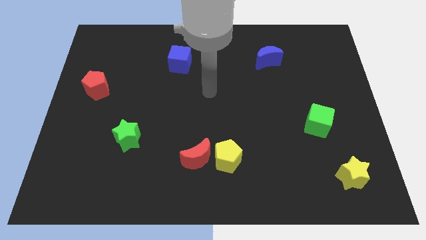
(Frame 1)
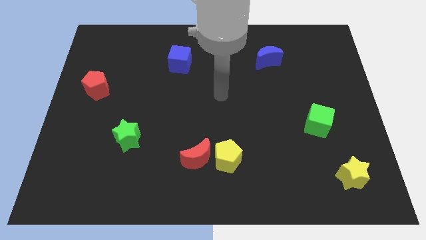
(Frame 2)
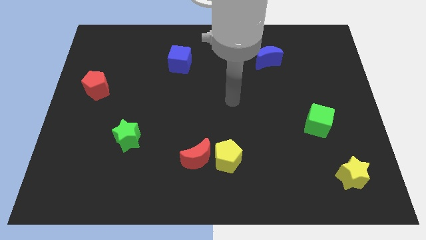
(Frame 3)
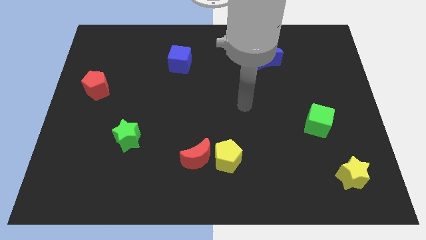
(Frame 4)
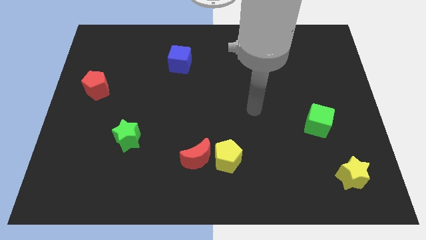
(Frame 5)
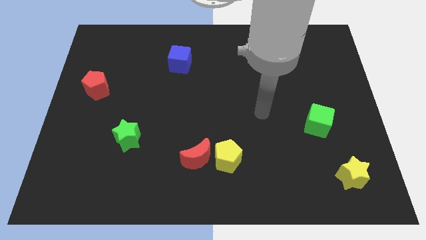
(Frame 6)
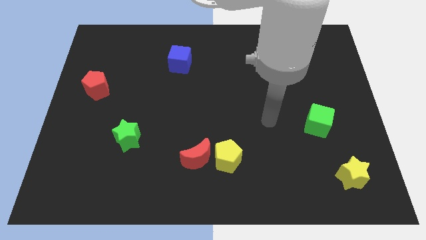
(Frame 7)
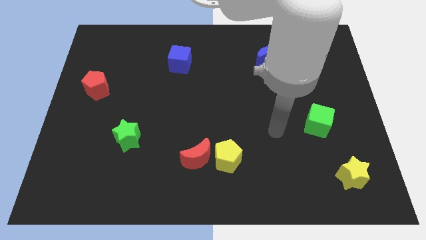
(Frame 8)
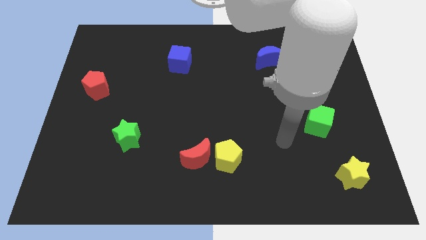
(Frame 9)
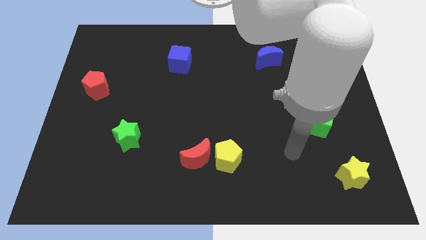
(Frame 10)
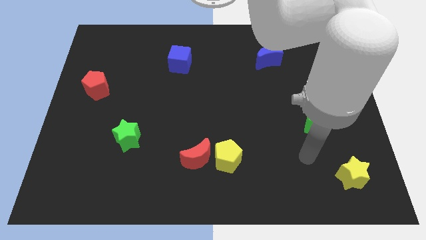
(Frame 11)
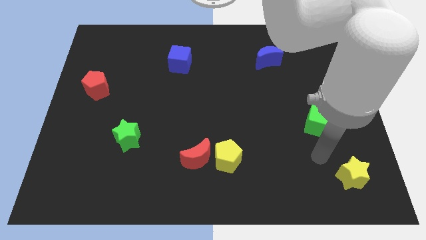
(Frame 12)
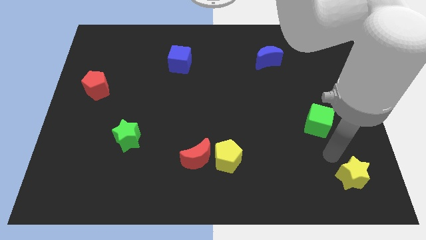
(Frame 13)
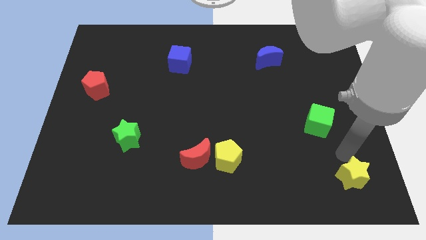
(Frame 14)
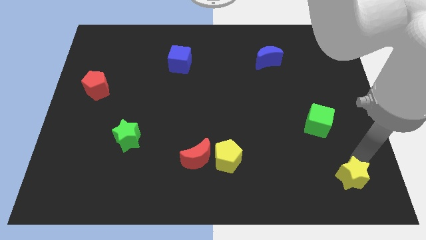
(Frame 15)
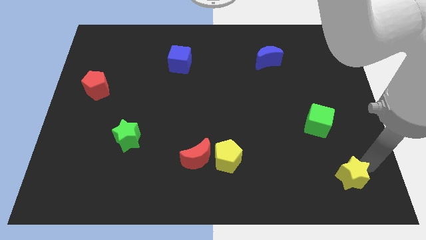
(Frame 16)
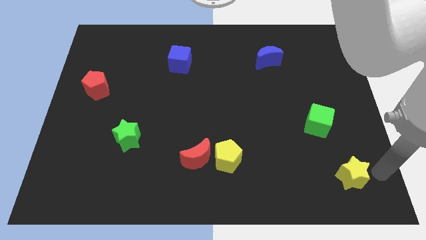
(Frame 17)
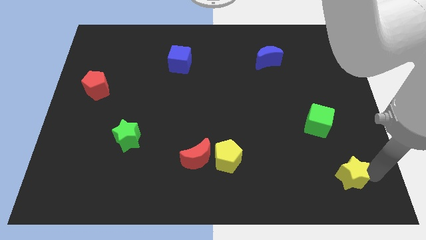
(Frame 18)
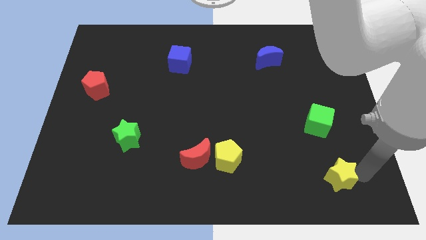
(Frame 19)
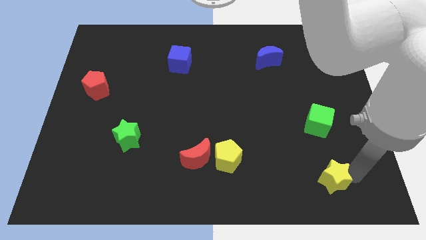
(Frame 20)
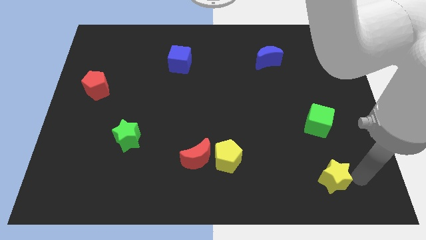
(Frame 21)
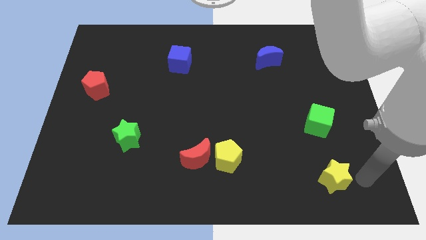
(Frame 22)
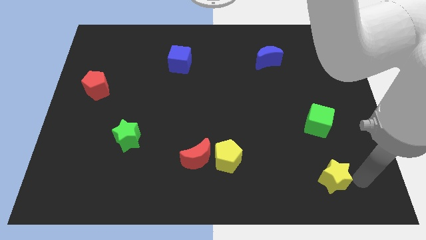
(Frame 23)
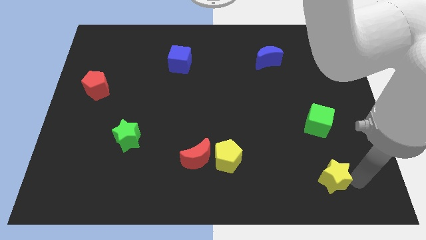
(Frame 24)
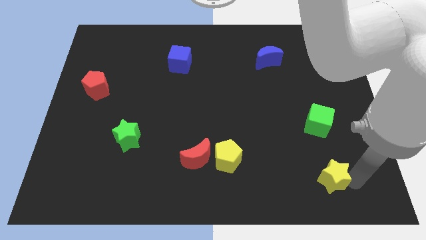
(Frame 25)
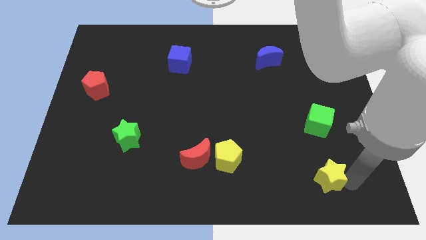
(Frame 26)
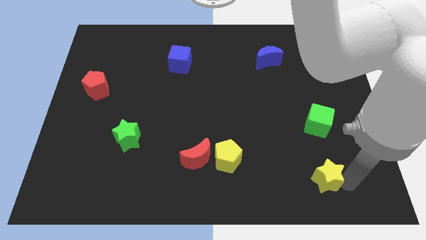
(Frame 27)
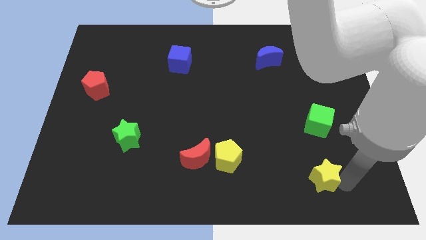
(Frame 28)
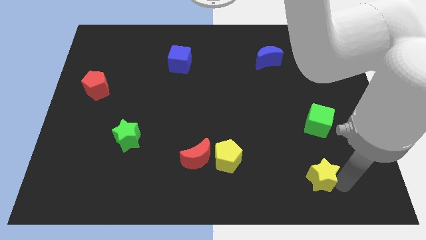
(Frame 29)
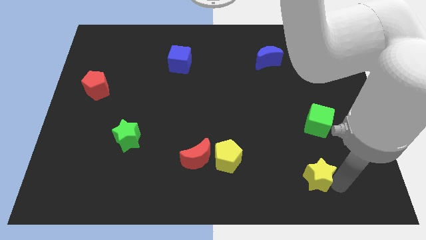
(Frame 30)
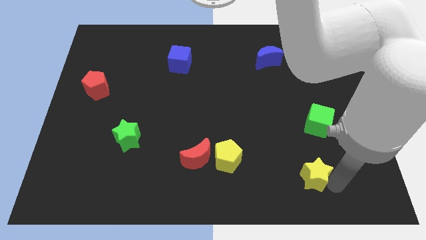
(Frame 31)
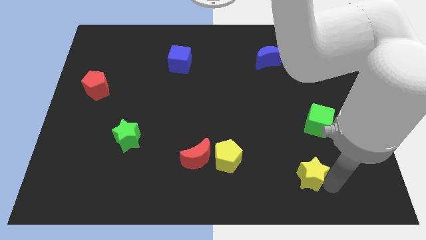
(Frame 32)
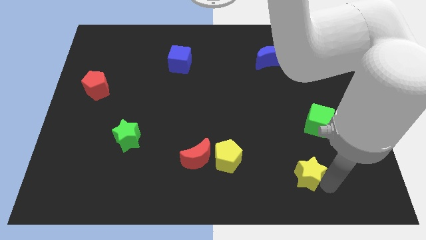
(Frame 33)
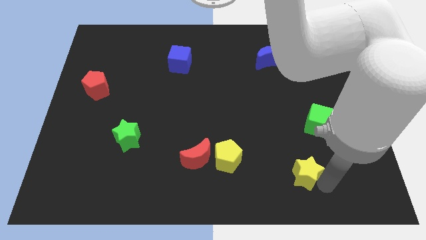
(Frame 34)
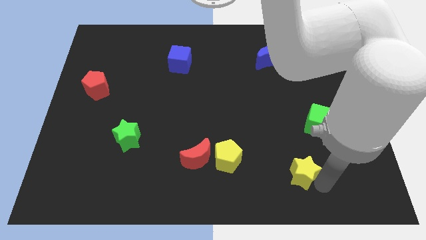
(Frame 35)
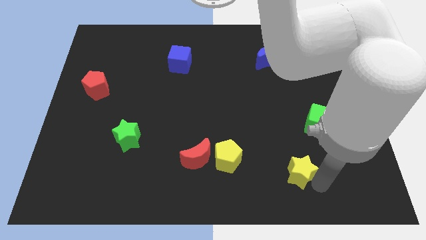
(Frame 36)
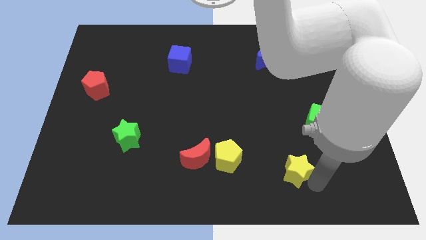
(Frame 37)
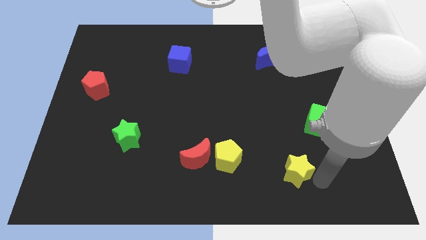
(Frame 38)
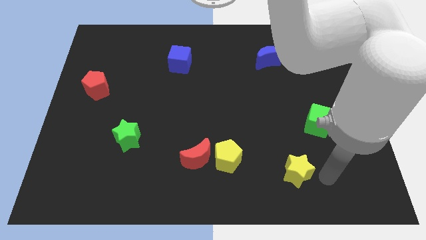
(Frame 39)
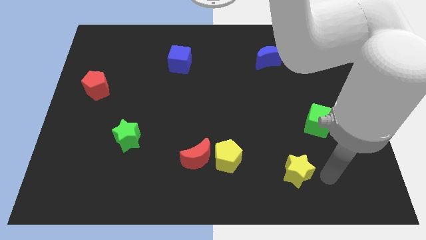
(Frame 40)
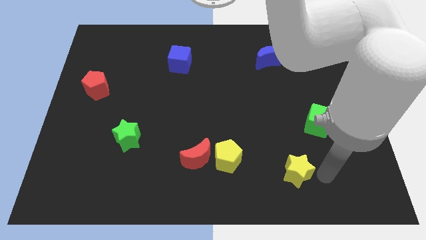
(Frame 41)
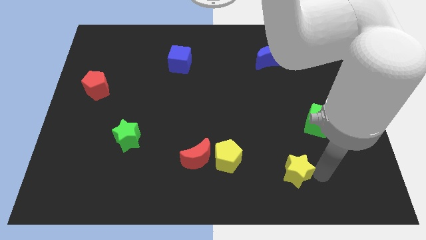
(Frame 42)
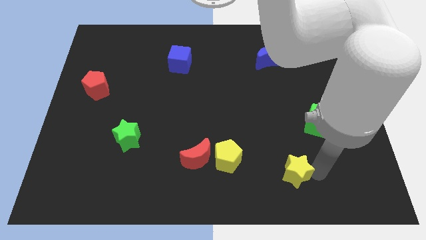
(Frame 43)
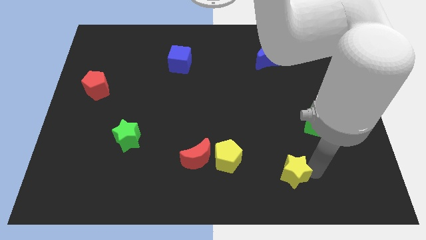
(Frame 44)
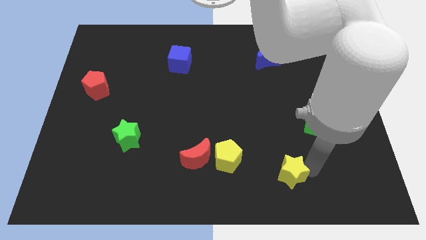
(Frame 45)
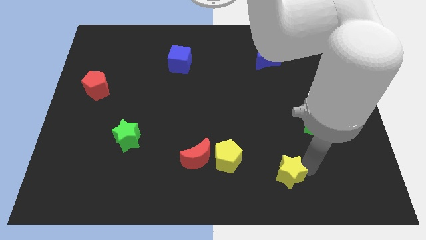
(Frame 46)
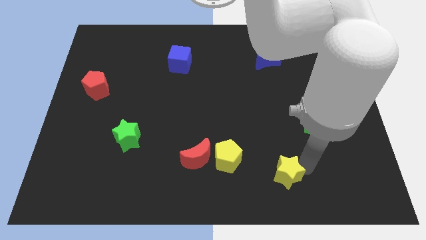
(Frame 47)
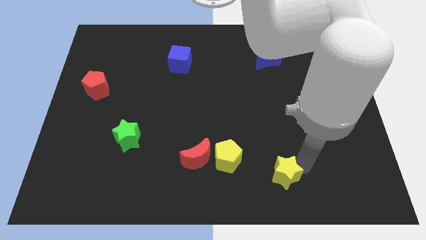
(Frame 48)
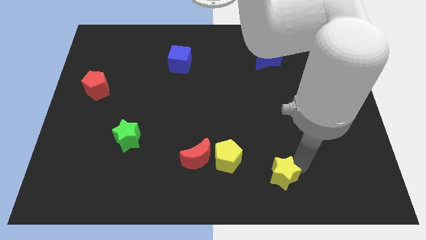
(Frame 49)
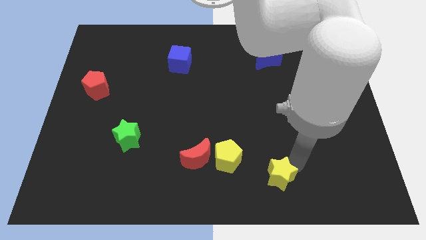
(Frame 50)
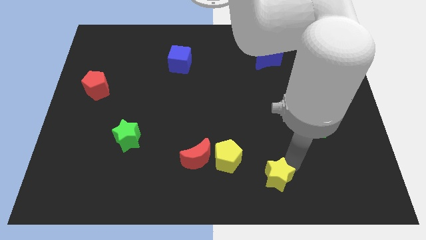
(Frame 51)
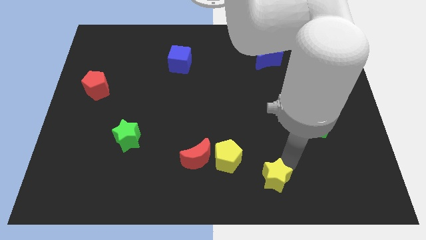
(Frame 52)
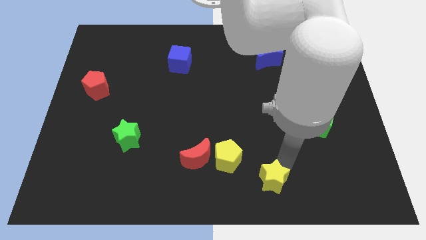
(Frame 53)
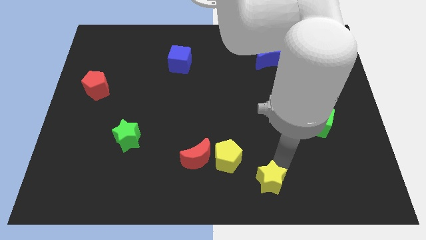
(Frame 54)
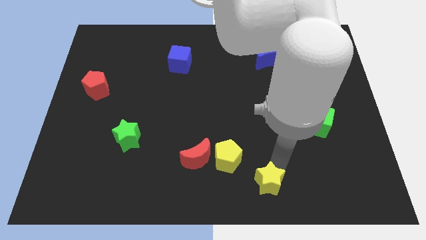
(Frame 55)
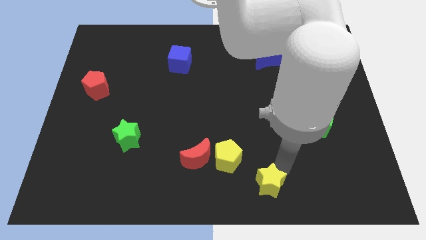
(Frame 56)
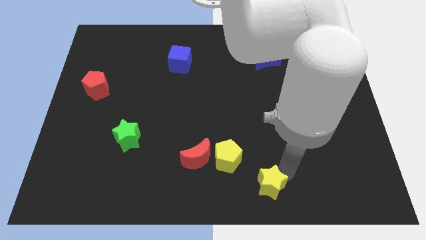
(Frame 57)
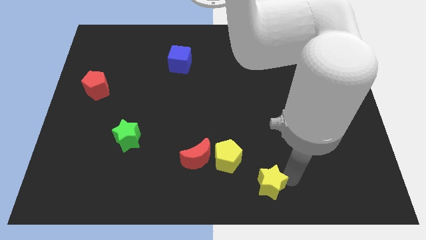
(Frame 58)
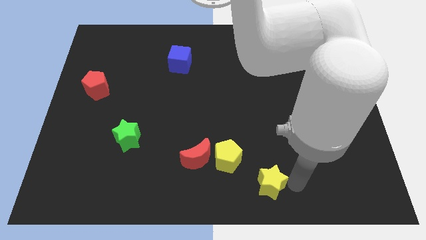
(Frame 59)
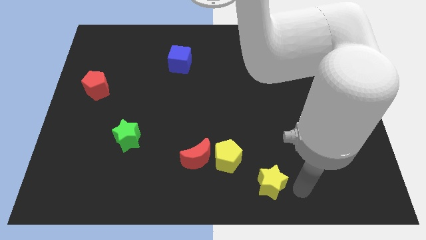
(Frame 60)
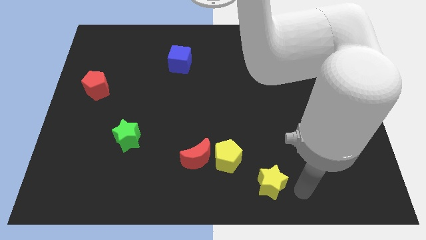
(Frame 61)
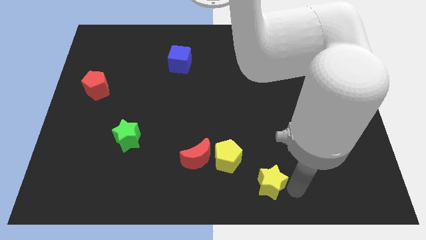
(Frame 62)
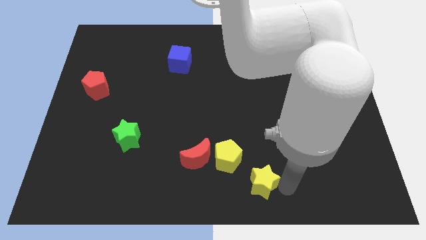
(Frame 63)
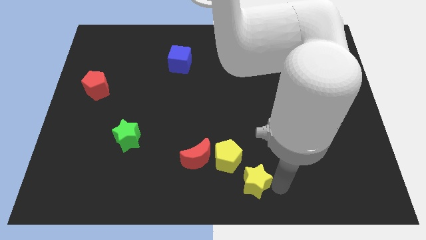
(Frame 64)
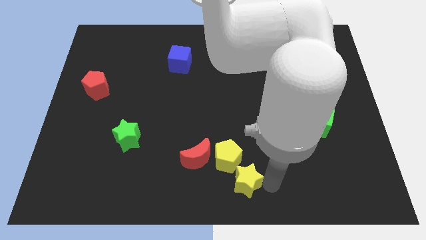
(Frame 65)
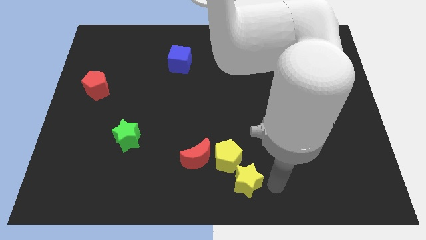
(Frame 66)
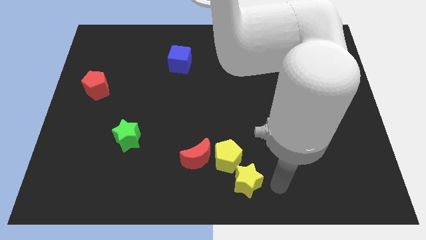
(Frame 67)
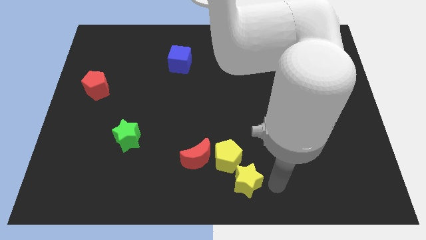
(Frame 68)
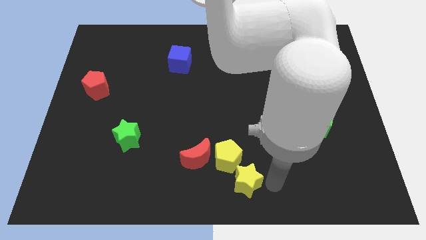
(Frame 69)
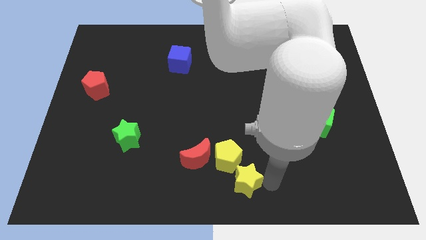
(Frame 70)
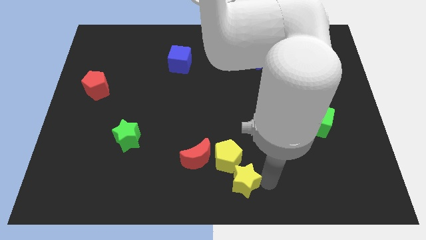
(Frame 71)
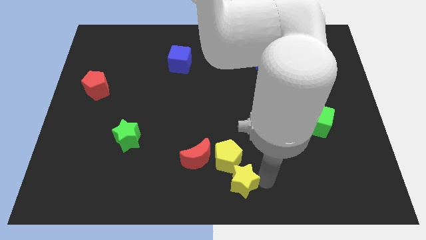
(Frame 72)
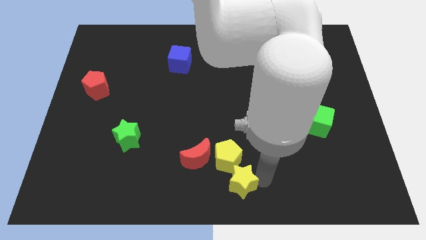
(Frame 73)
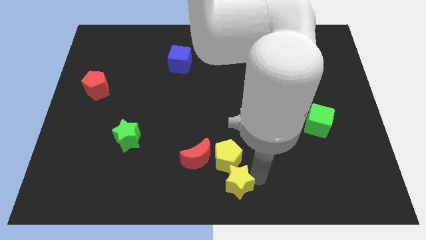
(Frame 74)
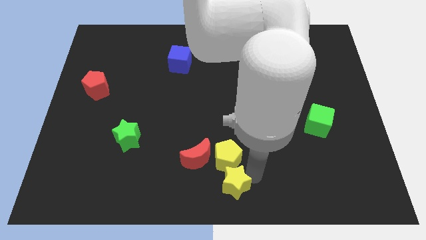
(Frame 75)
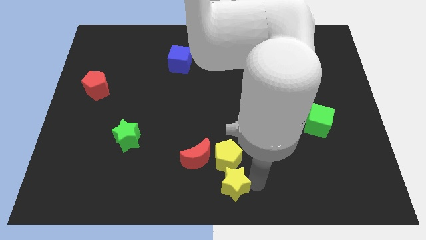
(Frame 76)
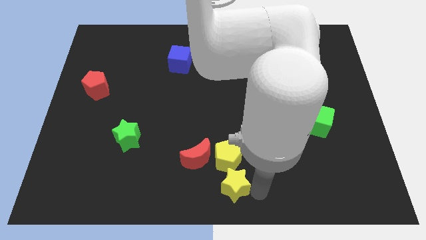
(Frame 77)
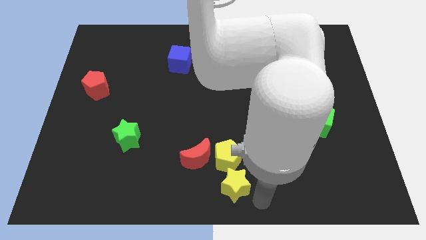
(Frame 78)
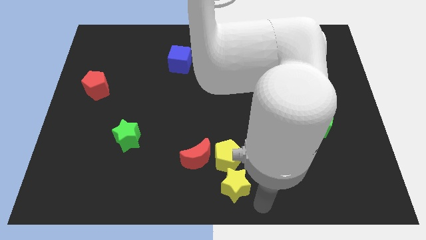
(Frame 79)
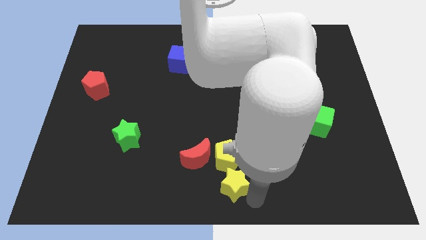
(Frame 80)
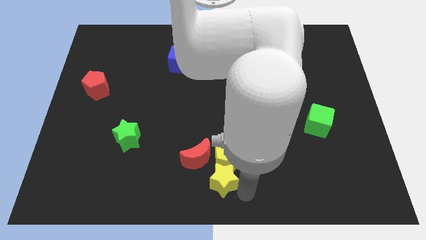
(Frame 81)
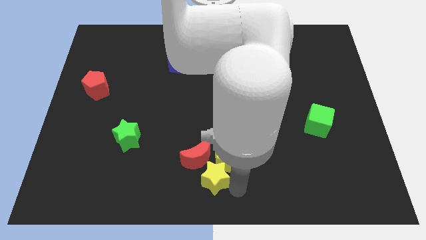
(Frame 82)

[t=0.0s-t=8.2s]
move the yellow star close to the red moon
